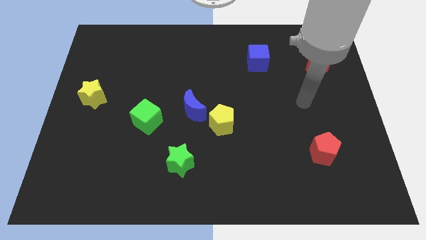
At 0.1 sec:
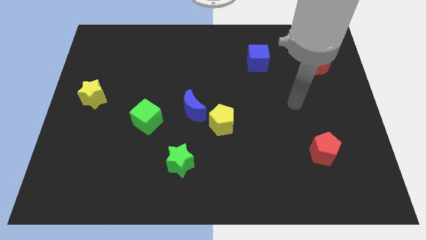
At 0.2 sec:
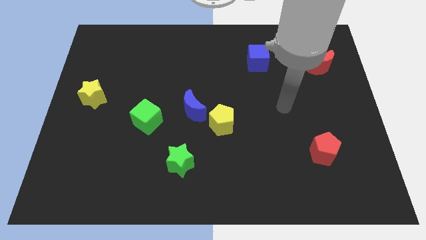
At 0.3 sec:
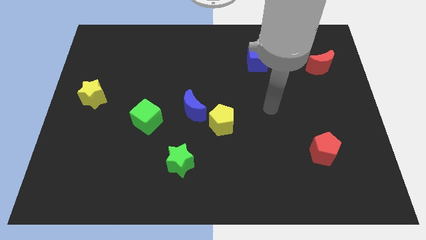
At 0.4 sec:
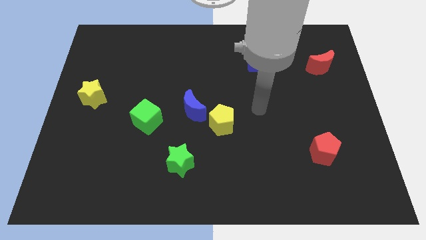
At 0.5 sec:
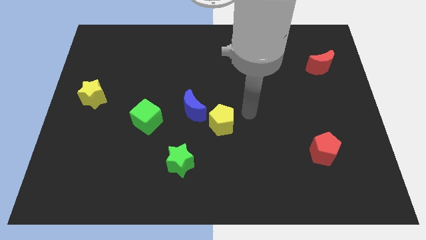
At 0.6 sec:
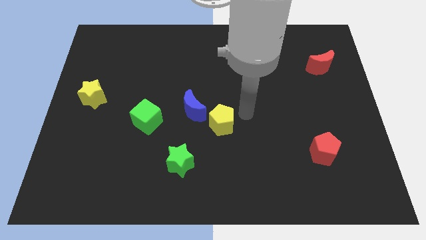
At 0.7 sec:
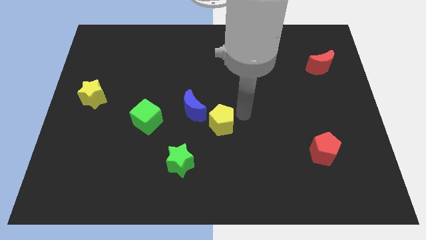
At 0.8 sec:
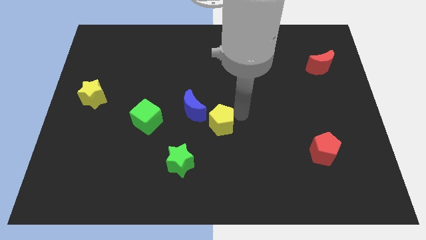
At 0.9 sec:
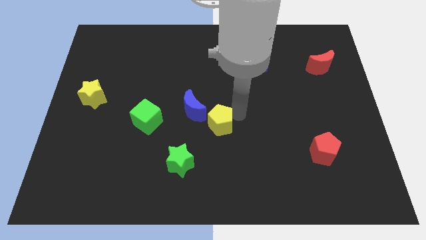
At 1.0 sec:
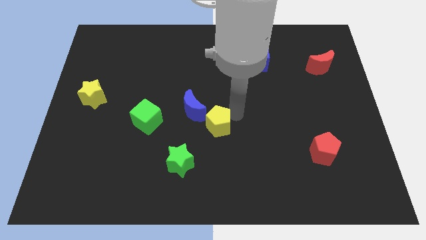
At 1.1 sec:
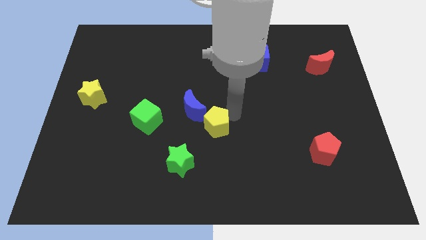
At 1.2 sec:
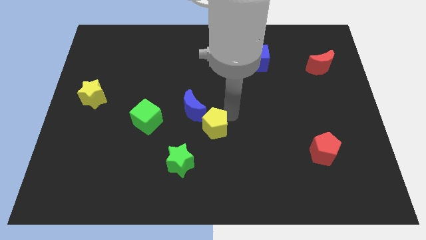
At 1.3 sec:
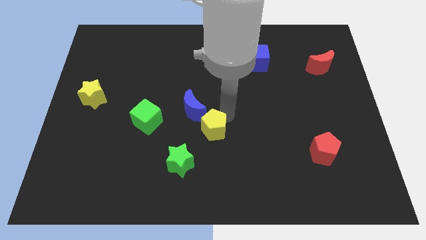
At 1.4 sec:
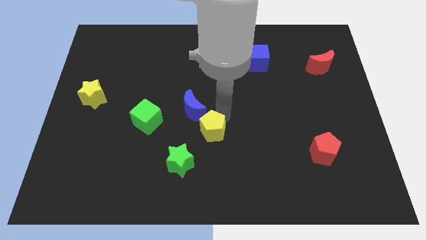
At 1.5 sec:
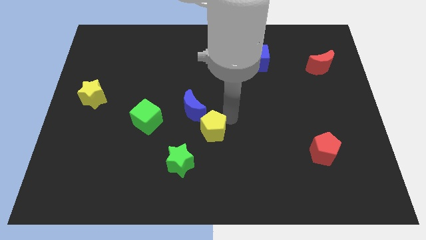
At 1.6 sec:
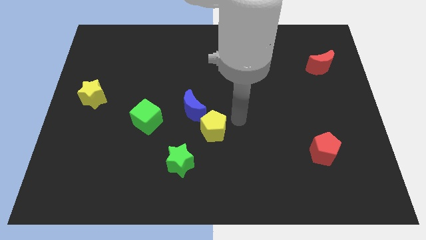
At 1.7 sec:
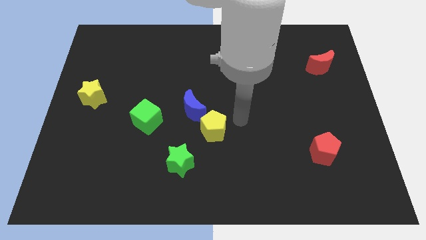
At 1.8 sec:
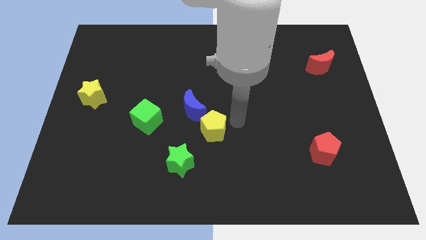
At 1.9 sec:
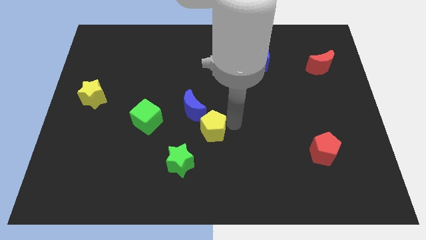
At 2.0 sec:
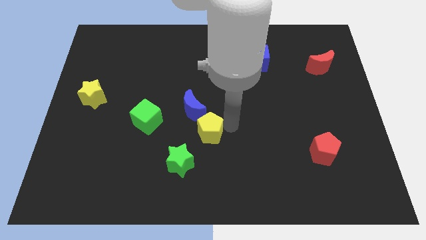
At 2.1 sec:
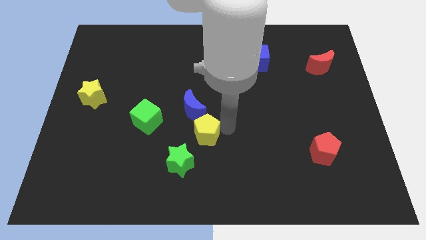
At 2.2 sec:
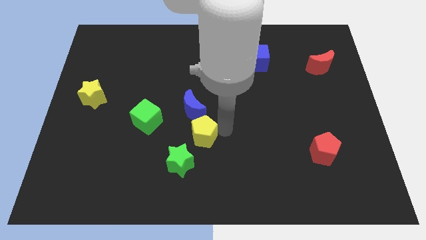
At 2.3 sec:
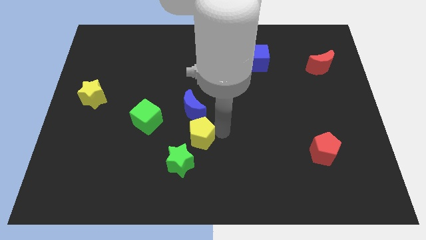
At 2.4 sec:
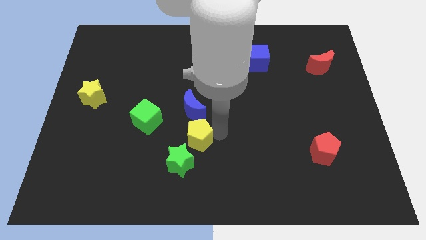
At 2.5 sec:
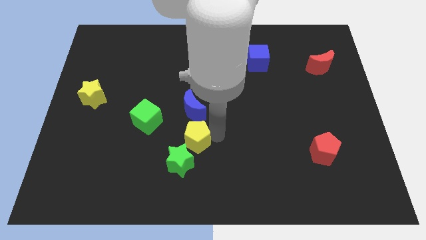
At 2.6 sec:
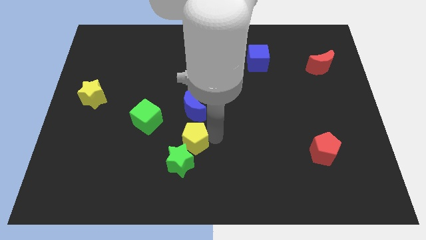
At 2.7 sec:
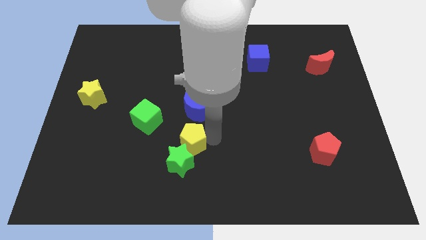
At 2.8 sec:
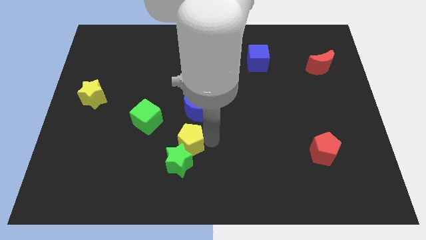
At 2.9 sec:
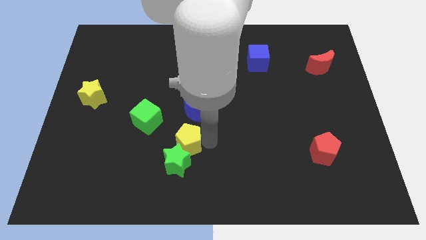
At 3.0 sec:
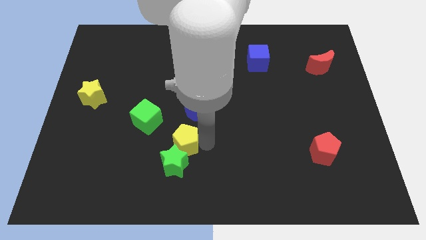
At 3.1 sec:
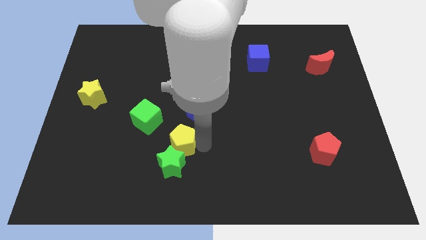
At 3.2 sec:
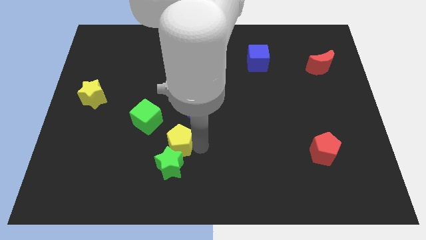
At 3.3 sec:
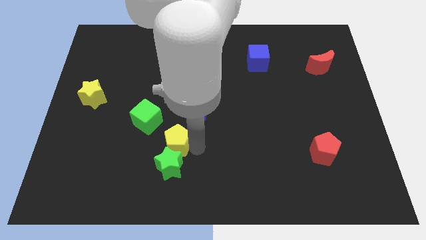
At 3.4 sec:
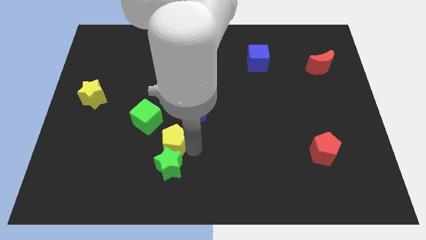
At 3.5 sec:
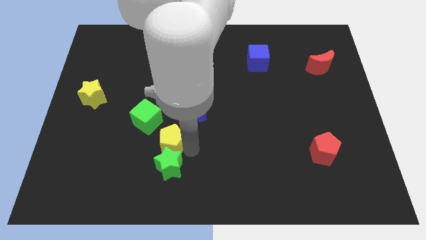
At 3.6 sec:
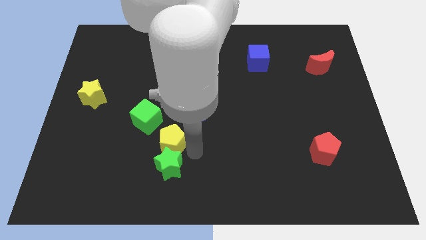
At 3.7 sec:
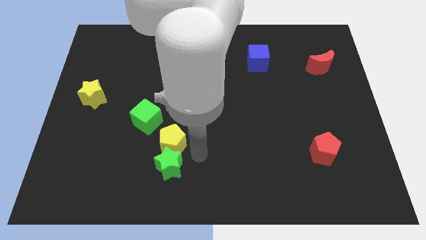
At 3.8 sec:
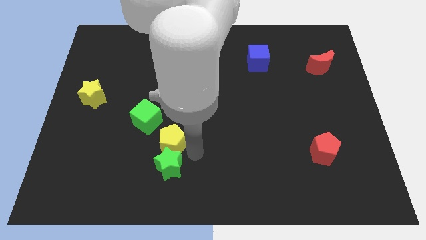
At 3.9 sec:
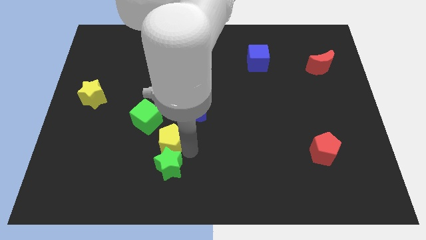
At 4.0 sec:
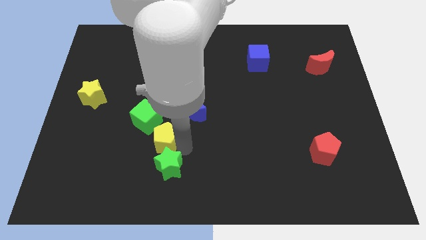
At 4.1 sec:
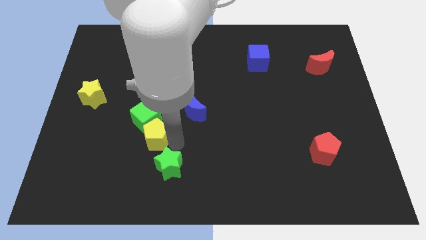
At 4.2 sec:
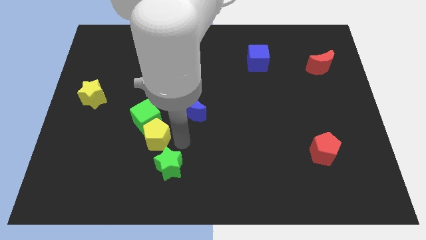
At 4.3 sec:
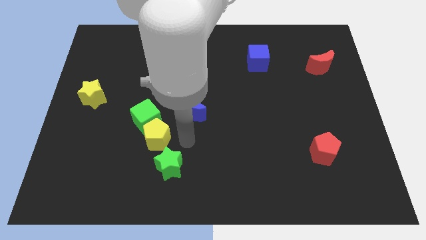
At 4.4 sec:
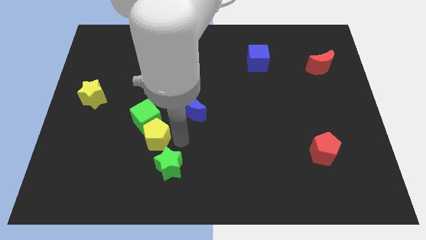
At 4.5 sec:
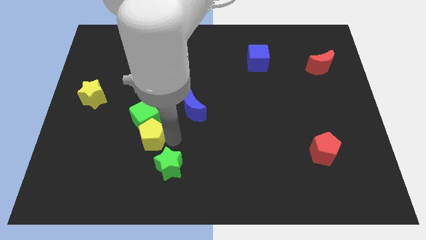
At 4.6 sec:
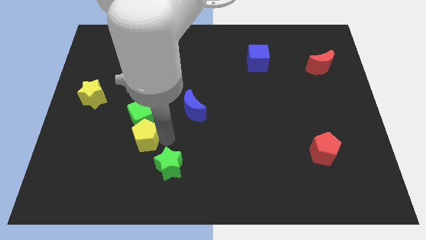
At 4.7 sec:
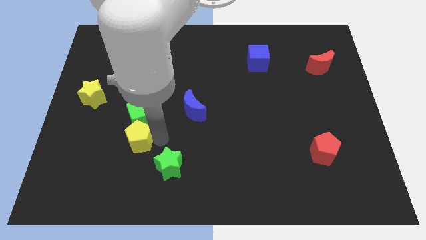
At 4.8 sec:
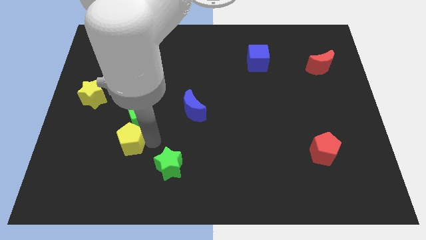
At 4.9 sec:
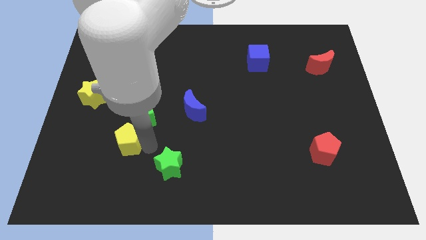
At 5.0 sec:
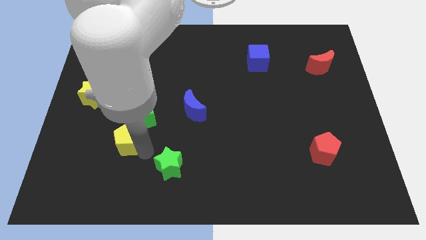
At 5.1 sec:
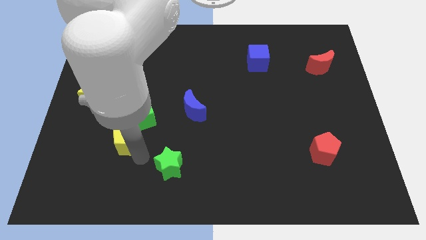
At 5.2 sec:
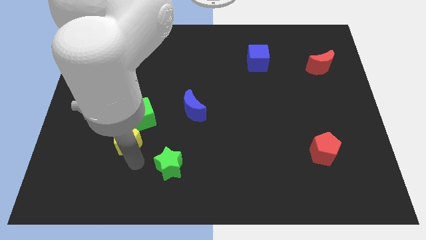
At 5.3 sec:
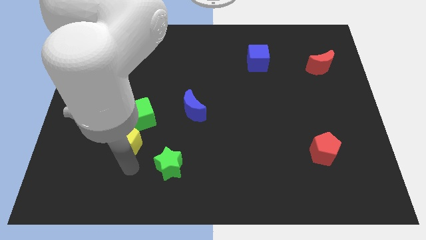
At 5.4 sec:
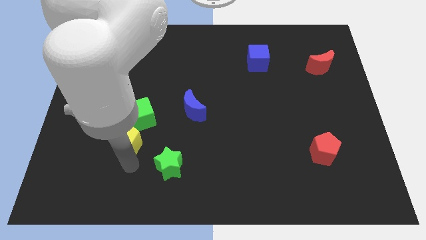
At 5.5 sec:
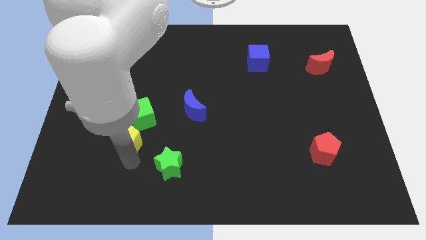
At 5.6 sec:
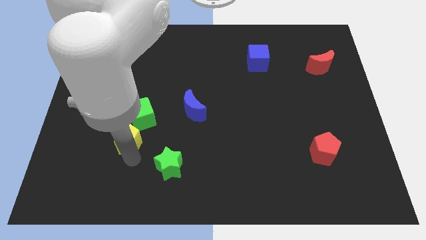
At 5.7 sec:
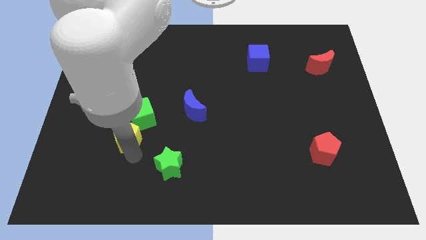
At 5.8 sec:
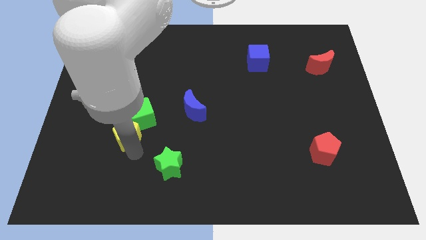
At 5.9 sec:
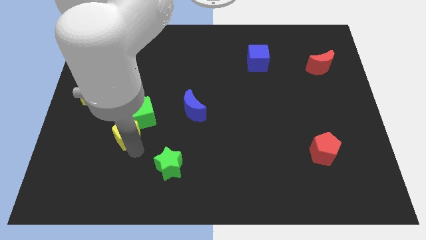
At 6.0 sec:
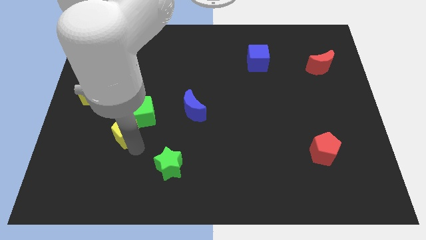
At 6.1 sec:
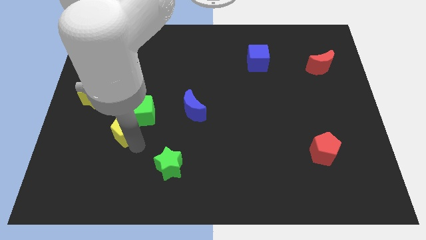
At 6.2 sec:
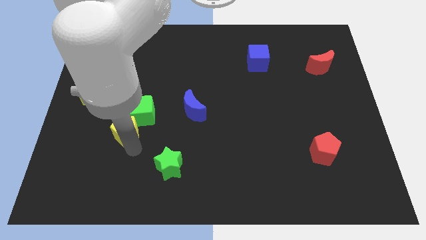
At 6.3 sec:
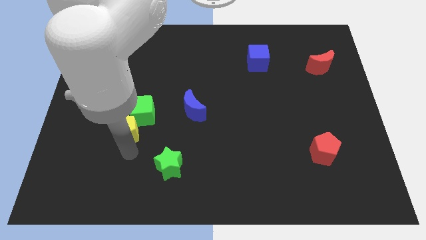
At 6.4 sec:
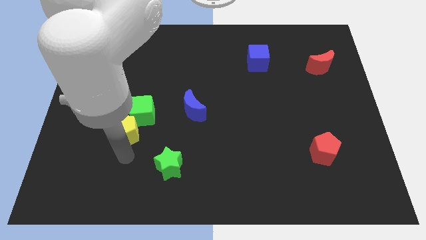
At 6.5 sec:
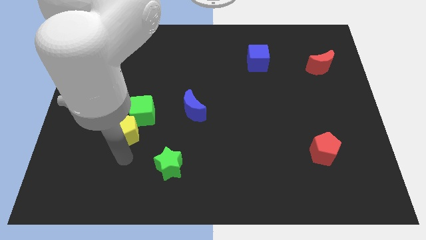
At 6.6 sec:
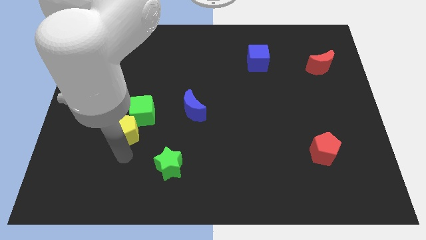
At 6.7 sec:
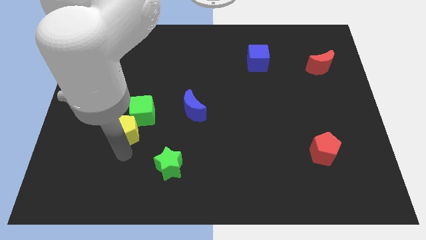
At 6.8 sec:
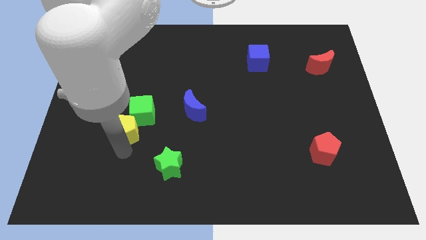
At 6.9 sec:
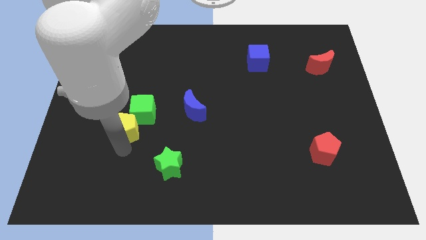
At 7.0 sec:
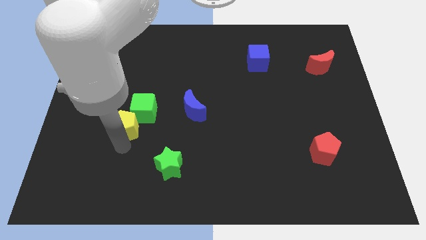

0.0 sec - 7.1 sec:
move the yellow pentagon to the bottom right side of the yellow star
